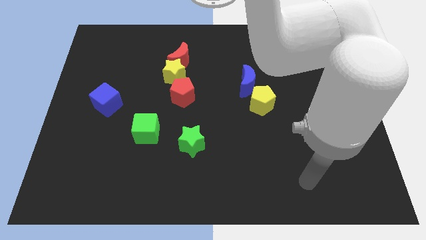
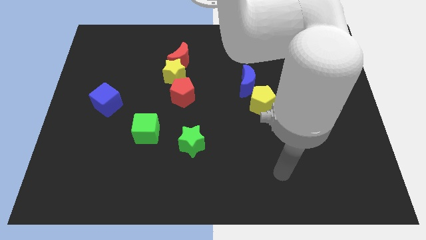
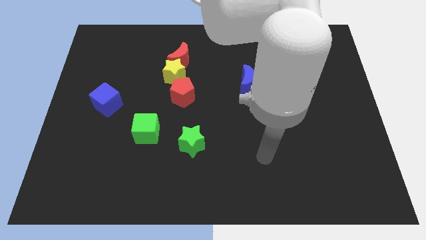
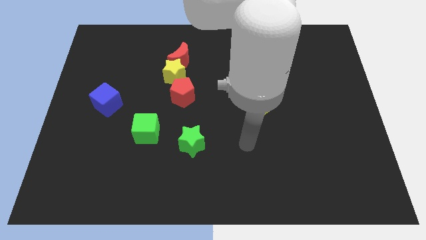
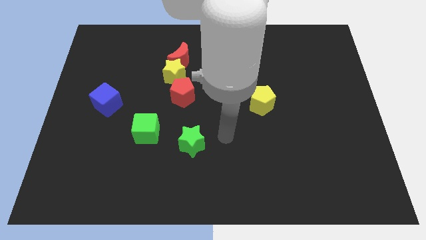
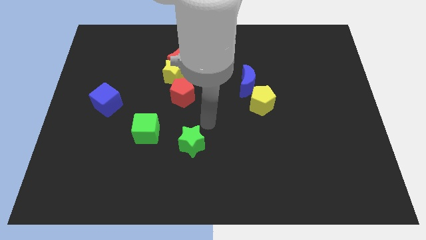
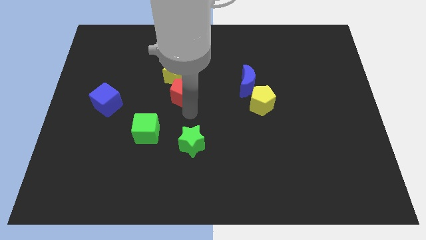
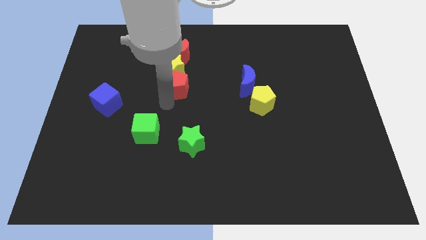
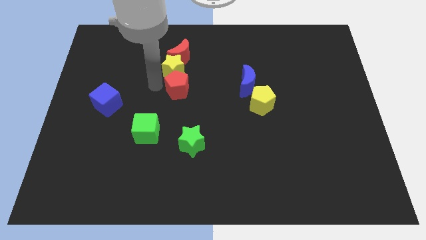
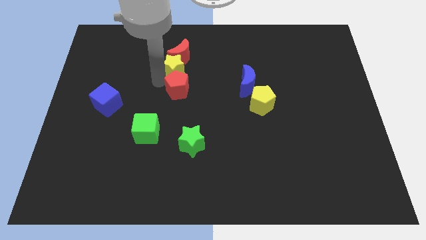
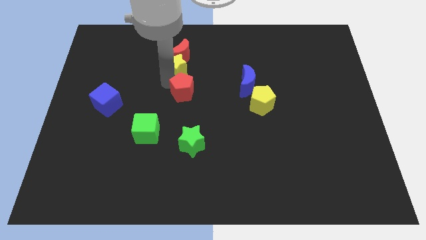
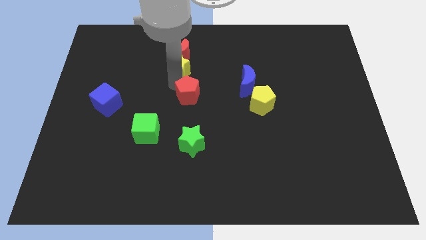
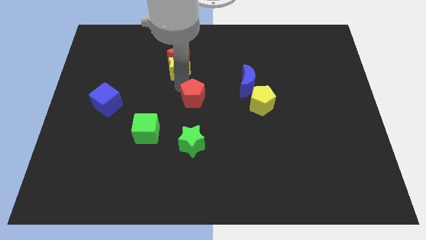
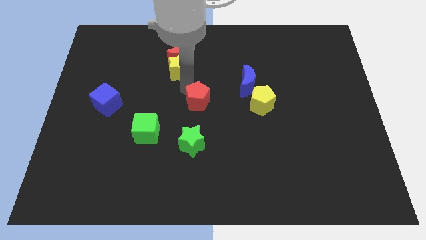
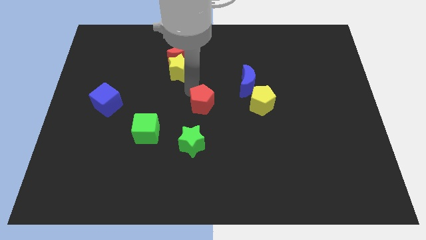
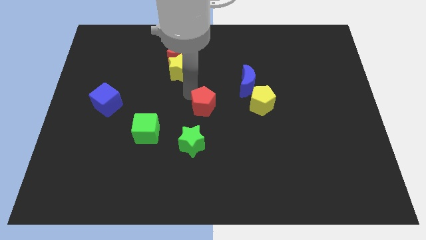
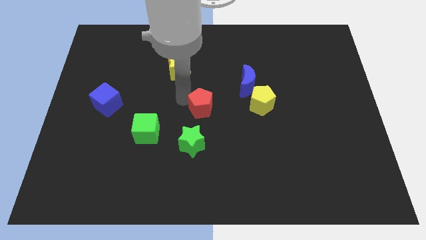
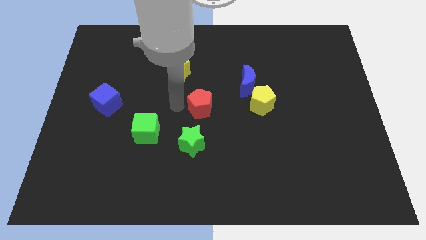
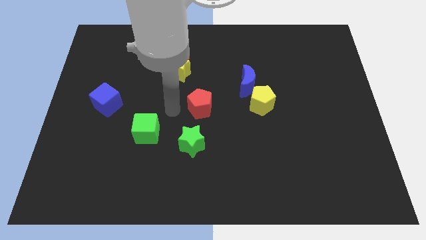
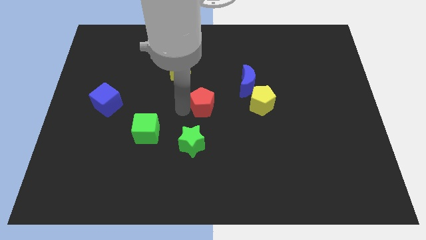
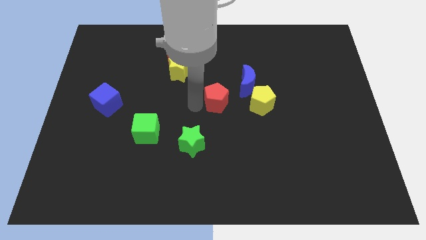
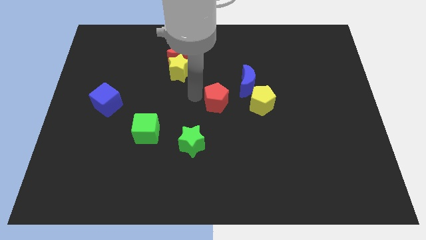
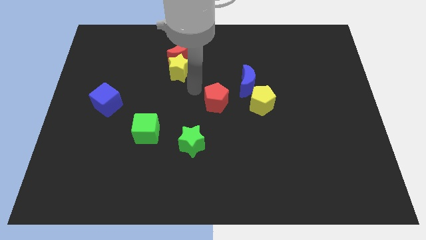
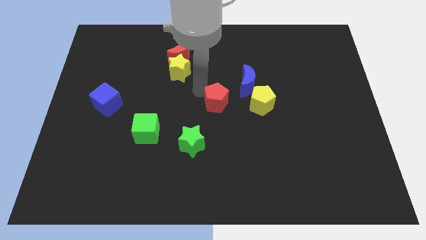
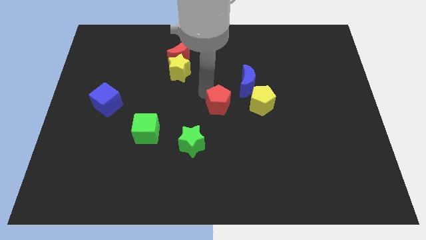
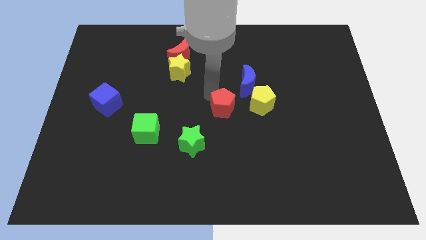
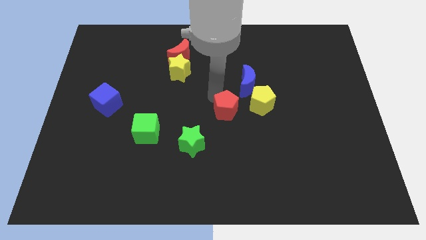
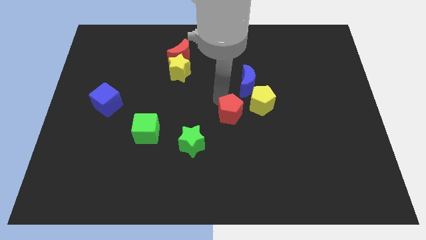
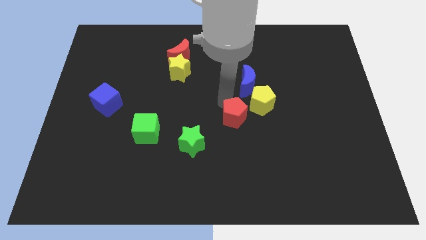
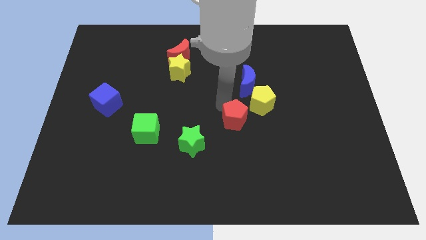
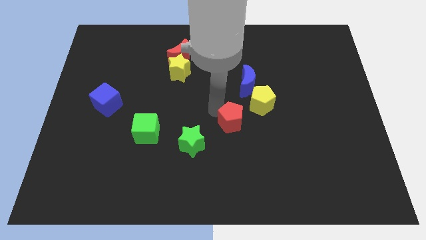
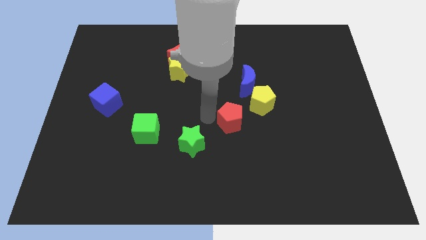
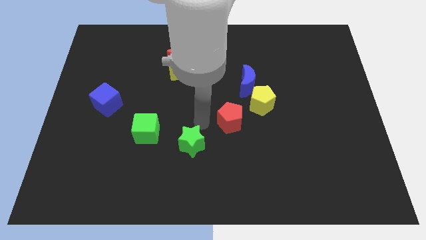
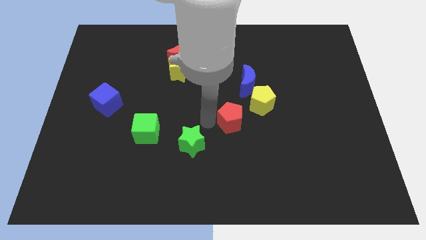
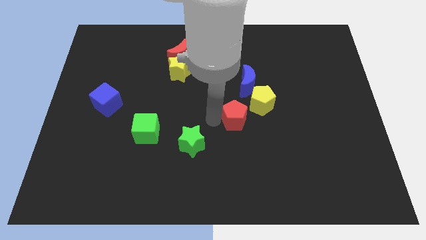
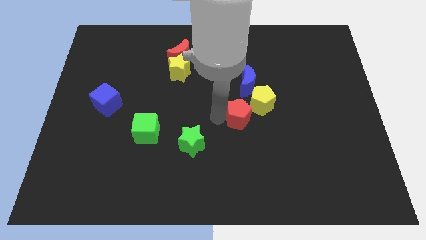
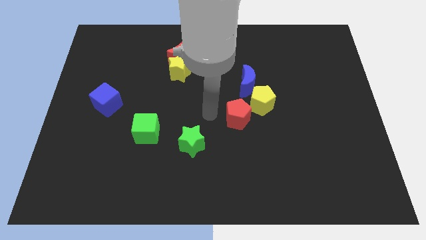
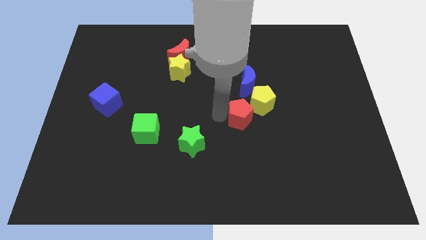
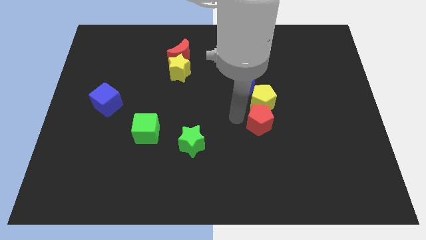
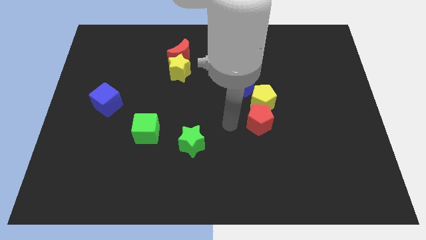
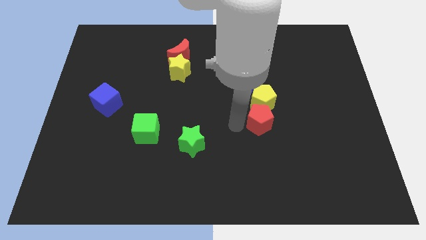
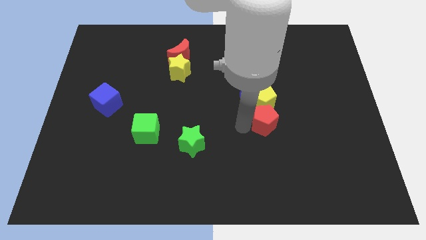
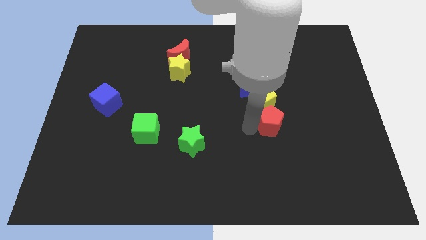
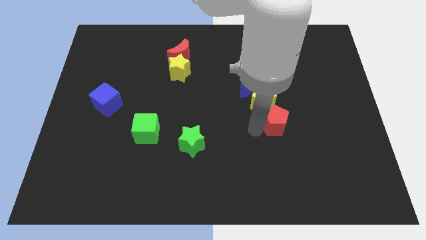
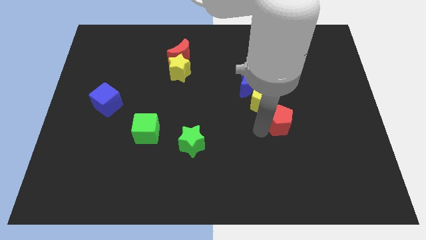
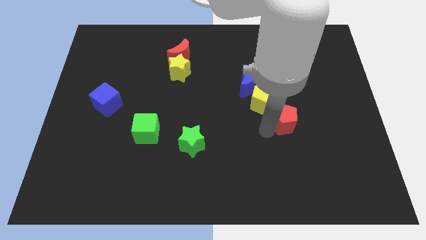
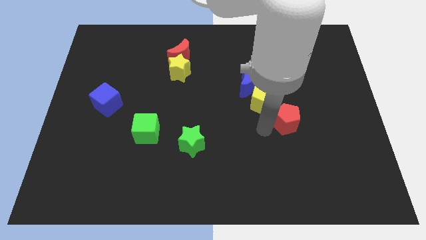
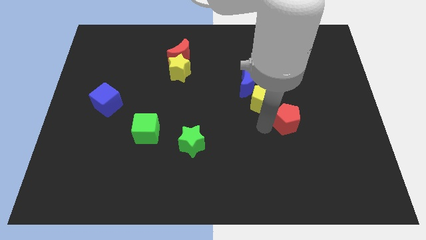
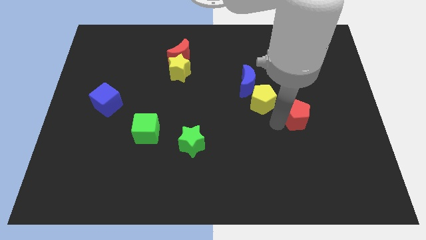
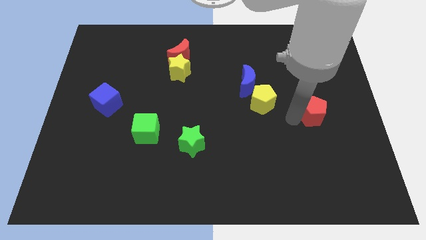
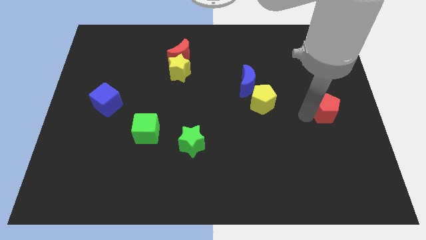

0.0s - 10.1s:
move the red pentagon to the right side

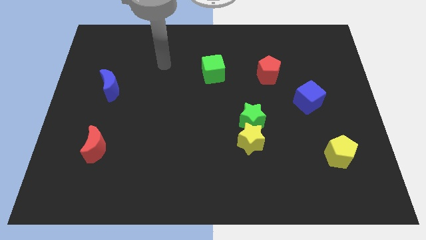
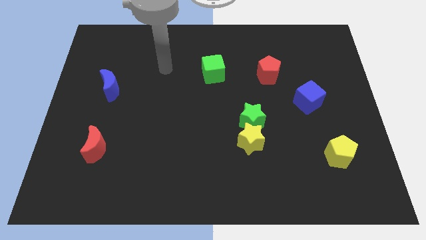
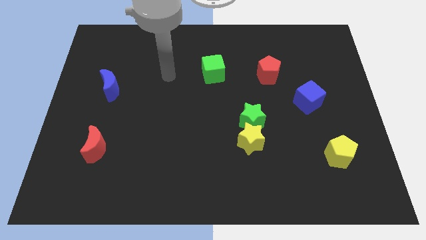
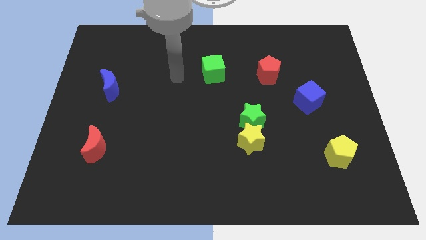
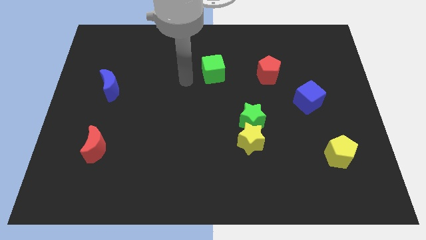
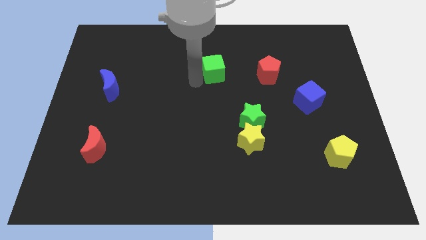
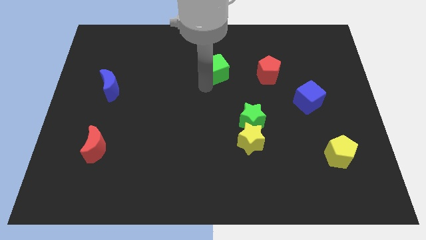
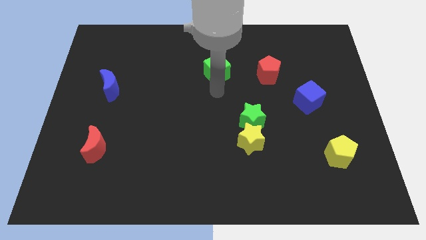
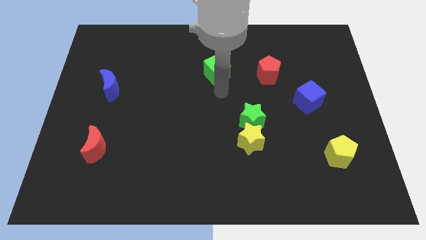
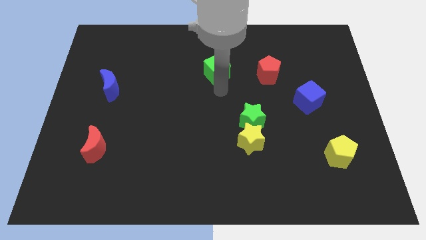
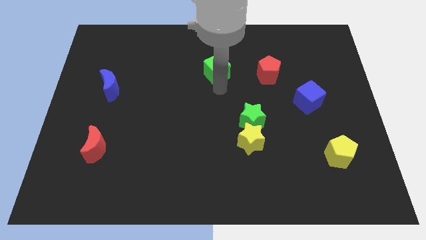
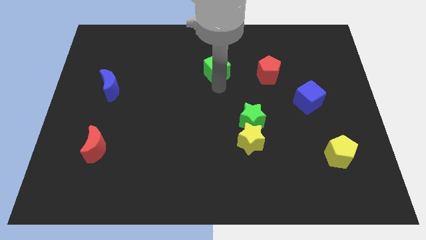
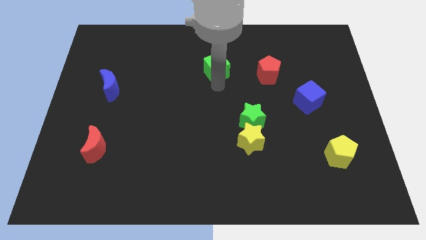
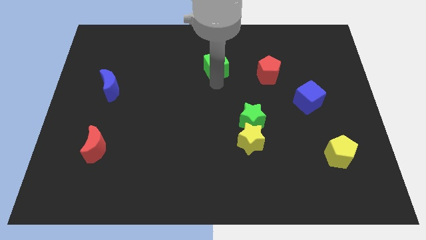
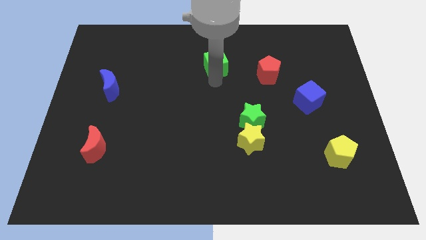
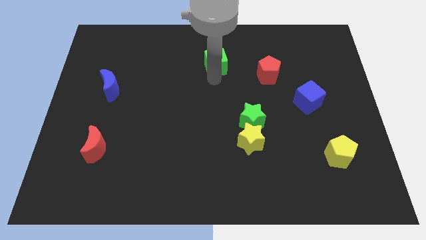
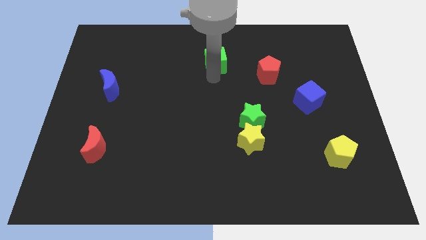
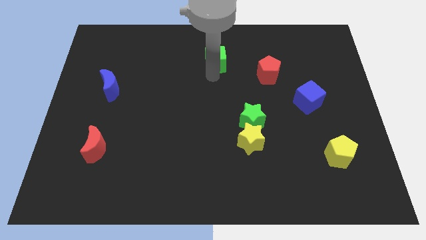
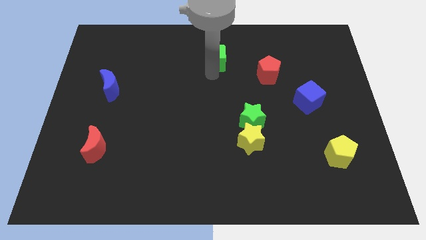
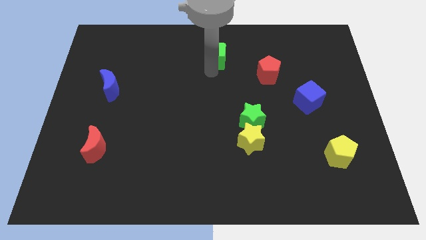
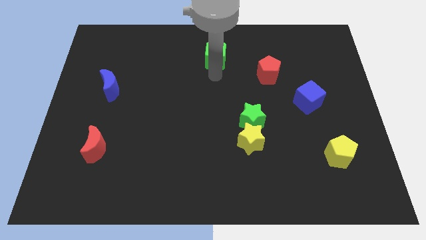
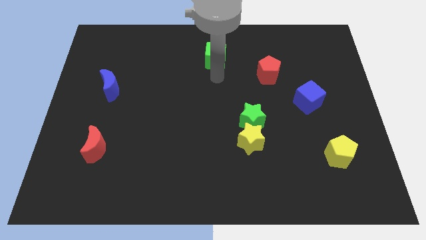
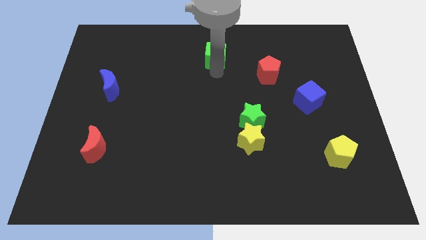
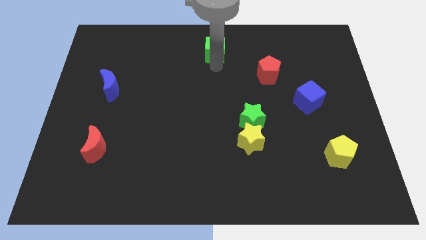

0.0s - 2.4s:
slide the green cube to the top side
